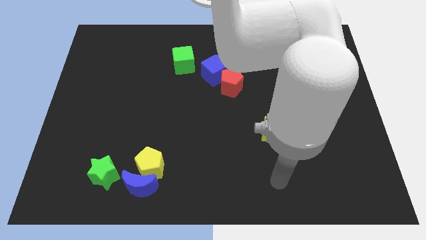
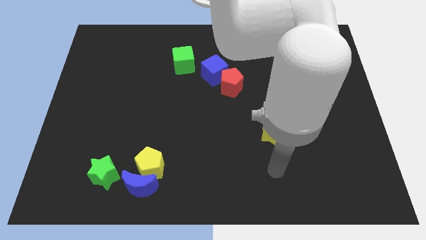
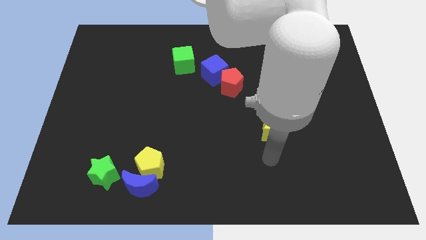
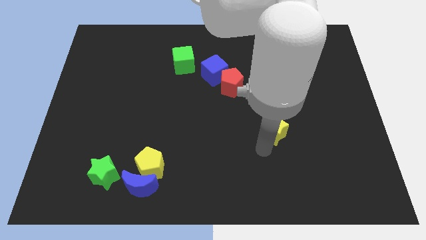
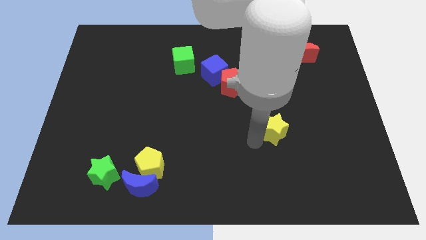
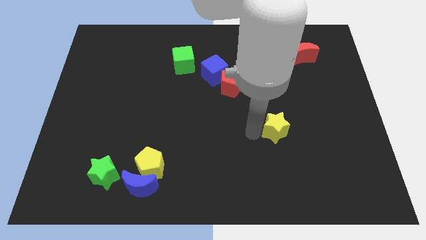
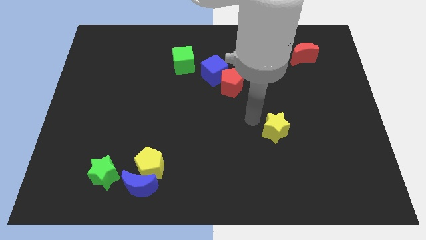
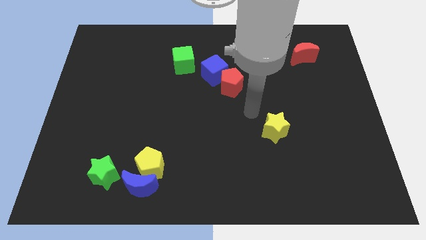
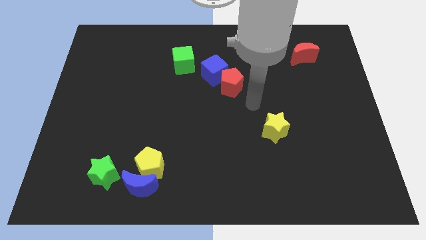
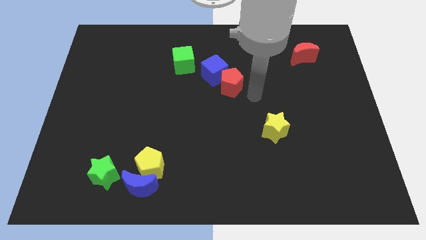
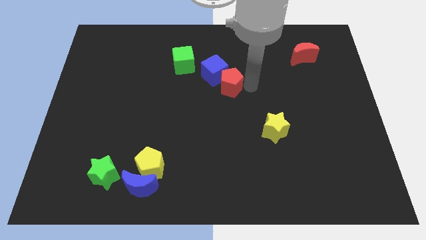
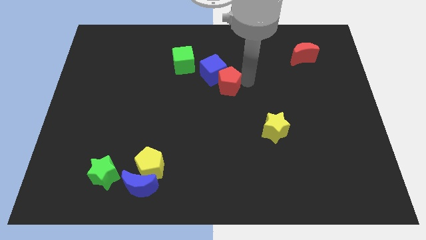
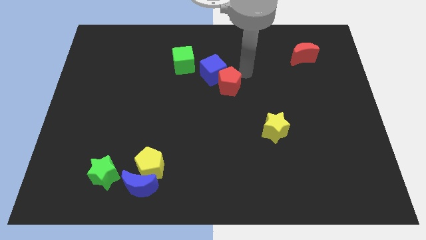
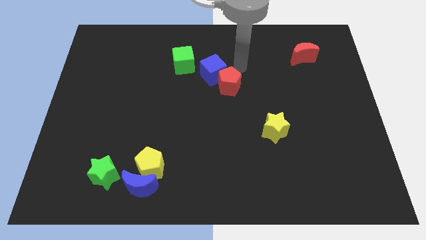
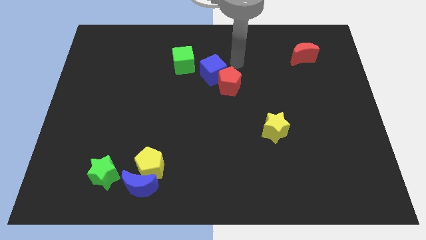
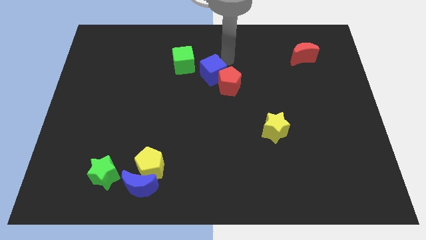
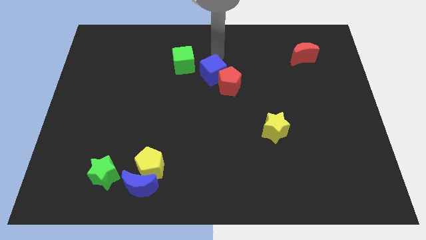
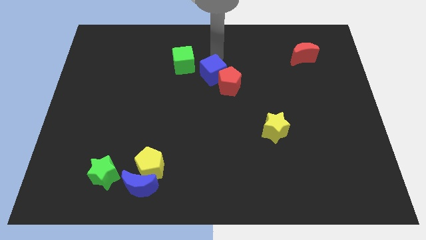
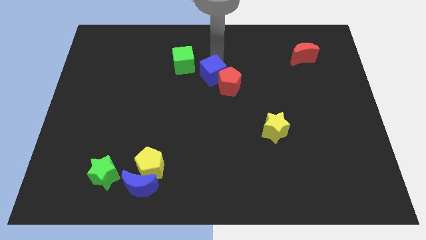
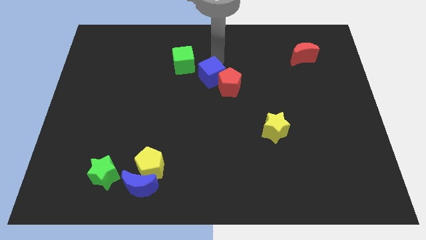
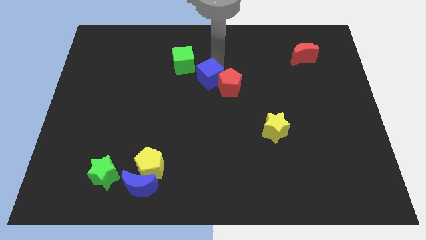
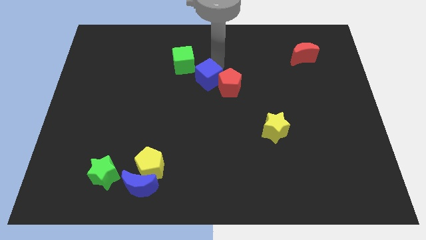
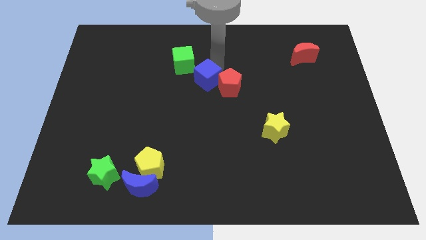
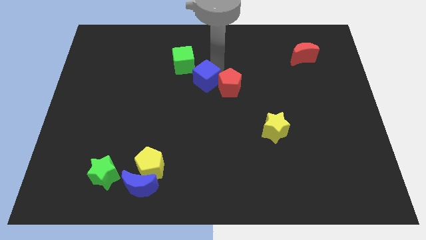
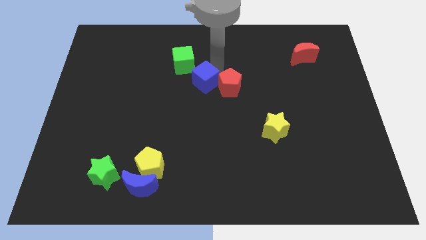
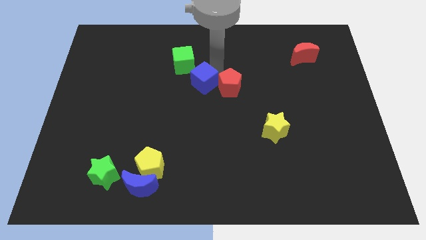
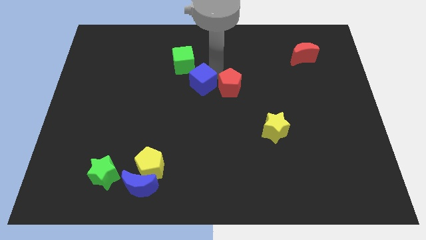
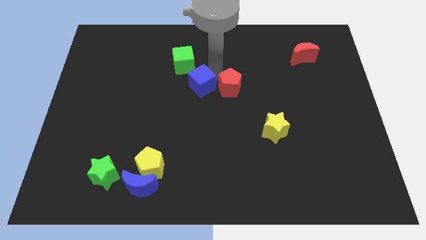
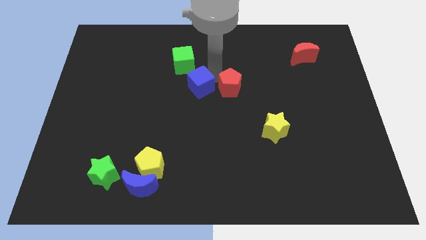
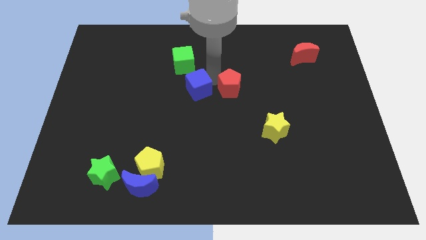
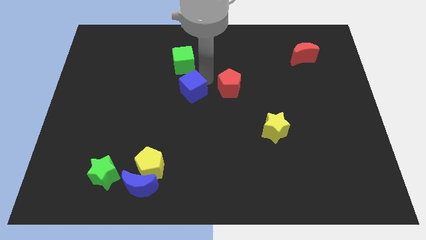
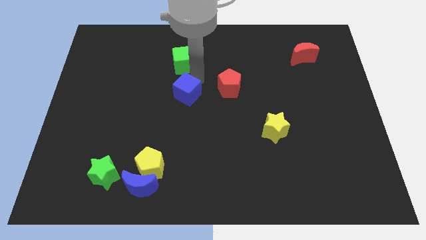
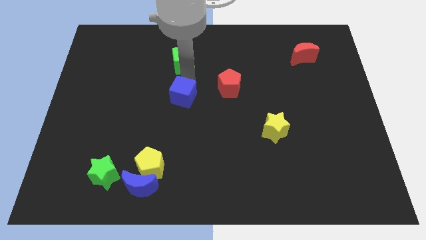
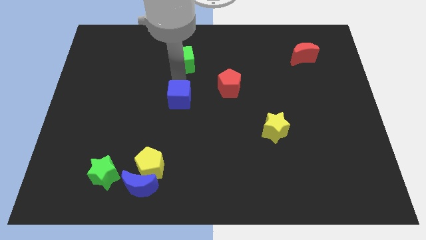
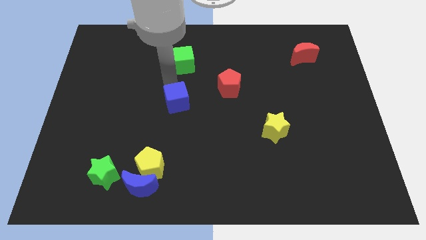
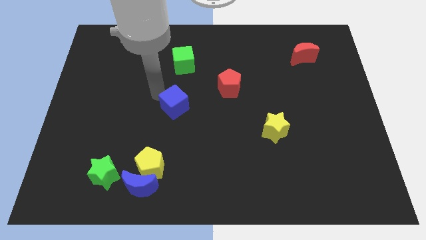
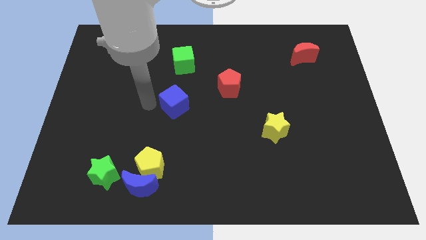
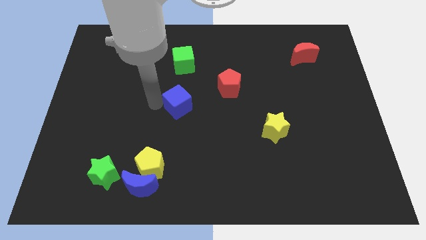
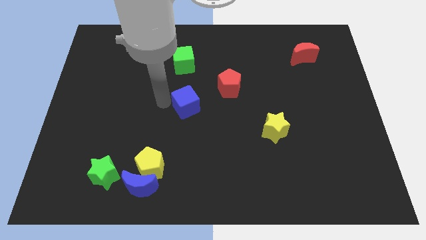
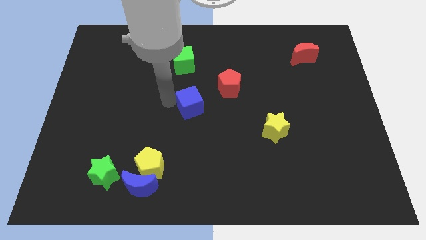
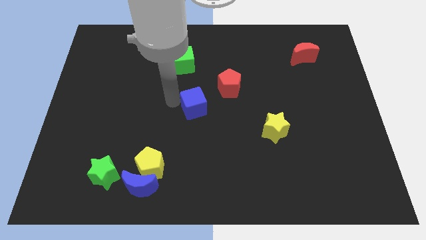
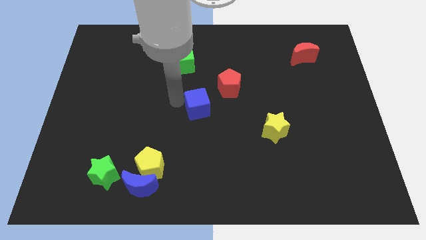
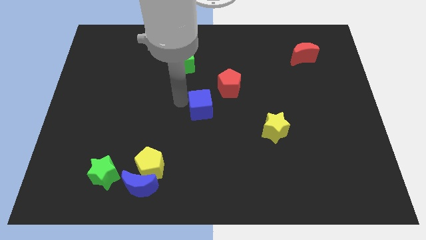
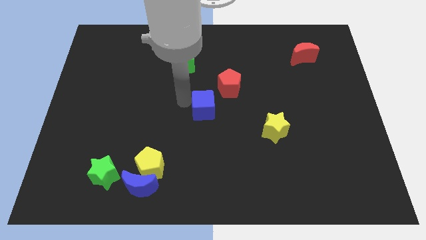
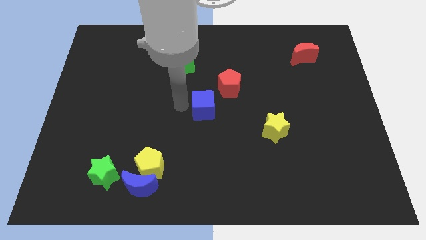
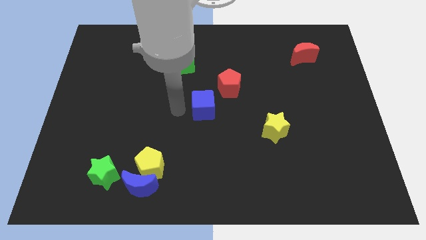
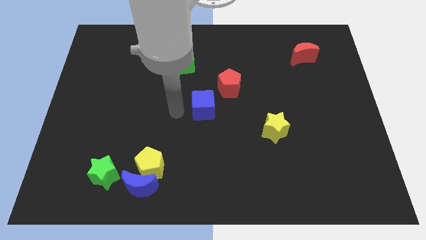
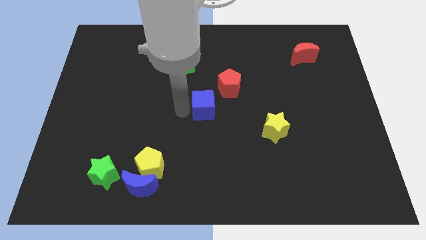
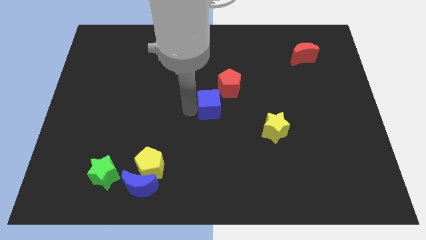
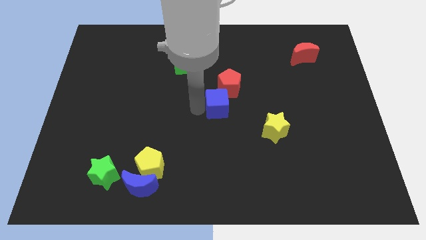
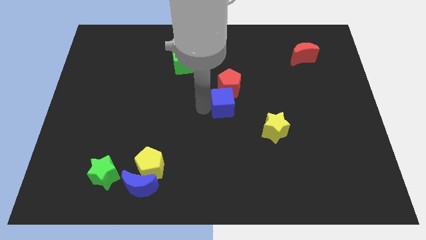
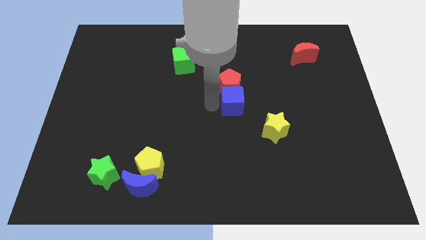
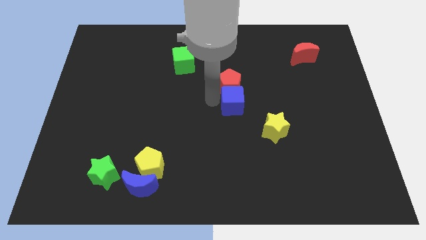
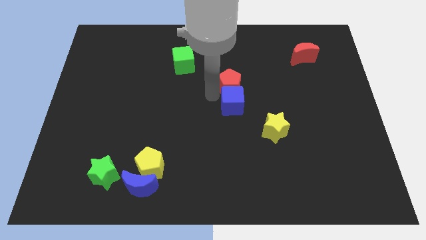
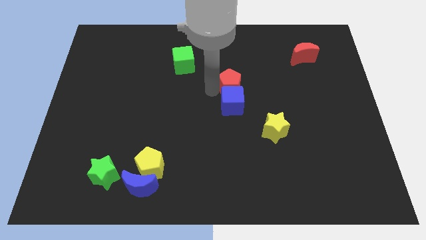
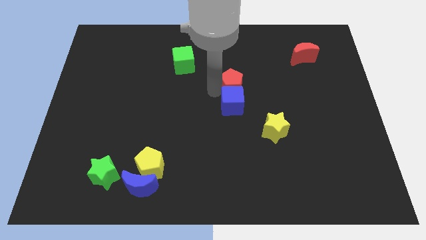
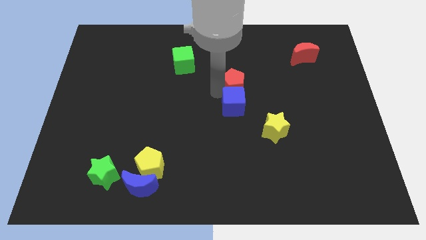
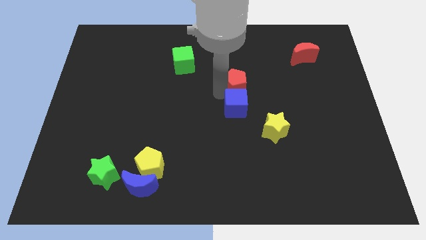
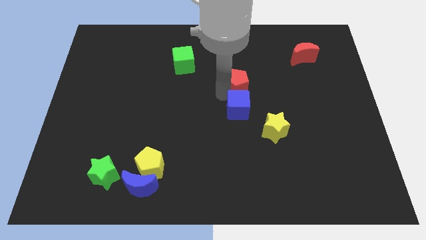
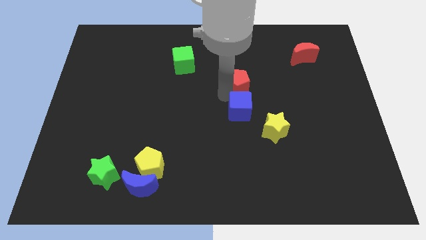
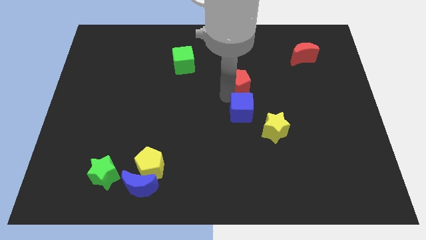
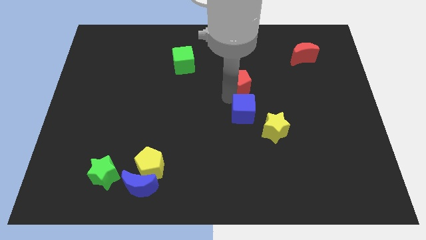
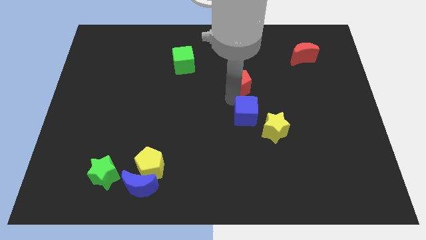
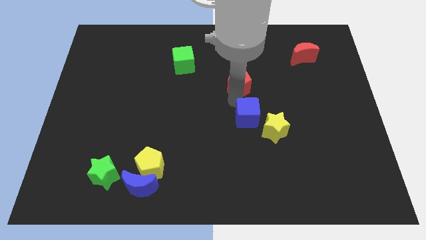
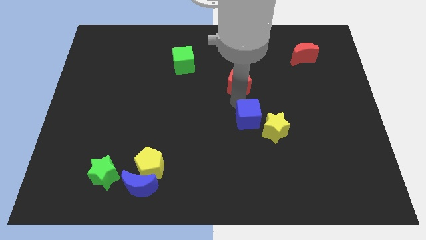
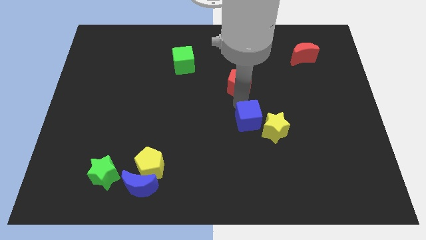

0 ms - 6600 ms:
move the blue cube next to the yellow star

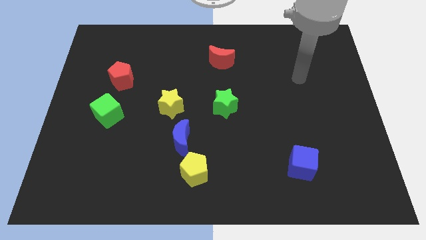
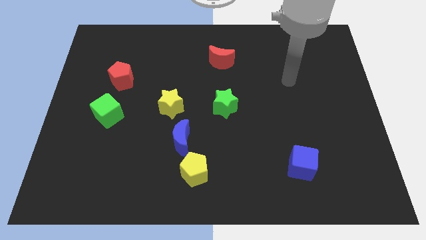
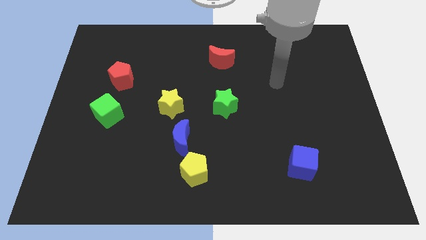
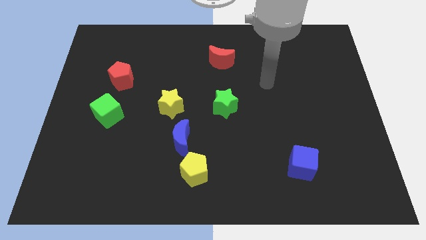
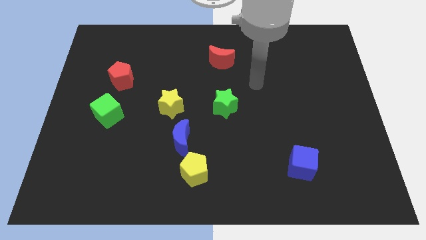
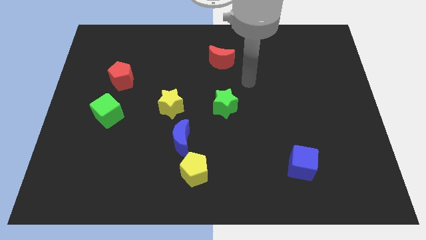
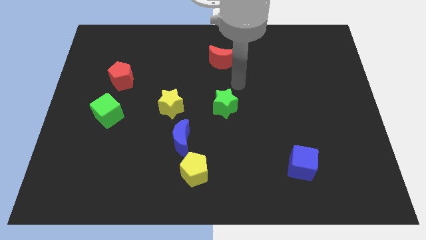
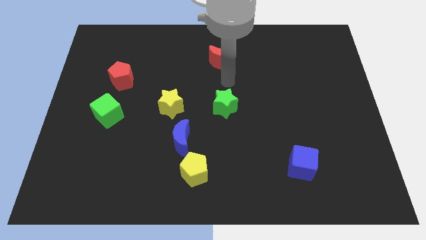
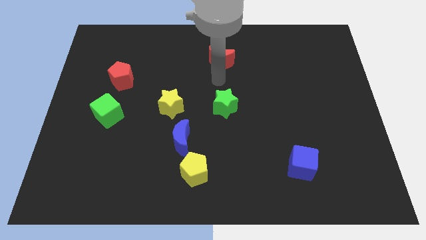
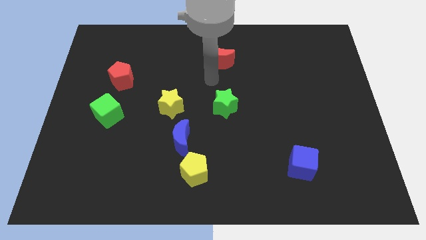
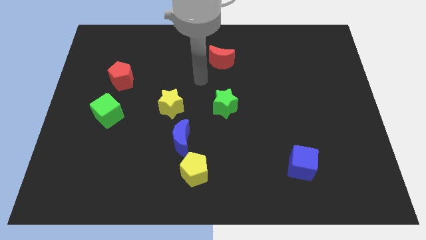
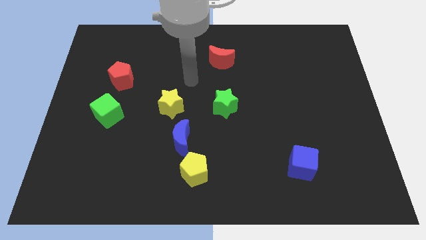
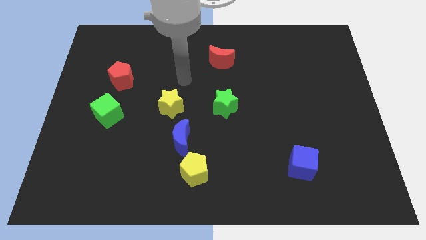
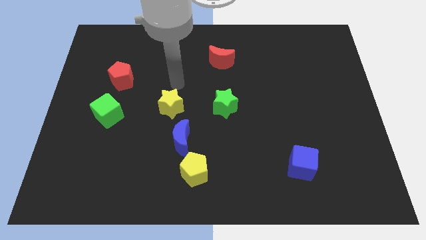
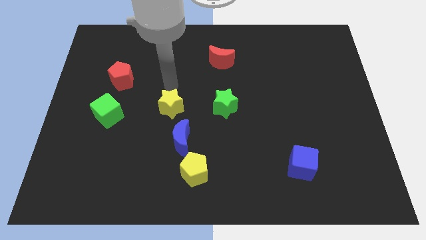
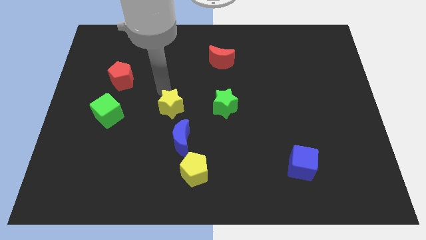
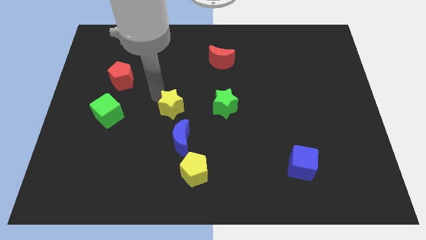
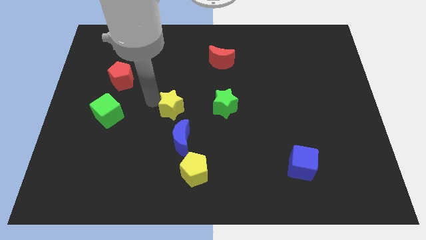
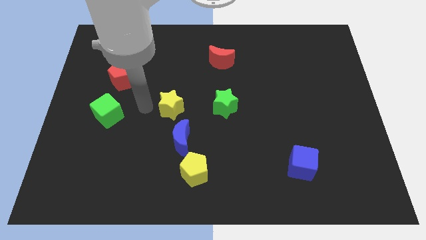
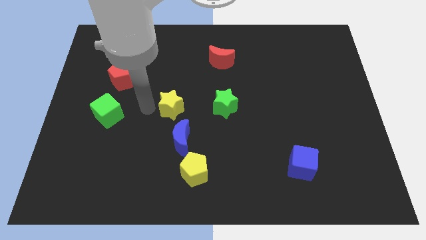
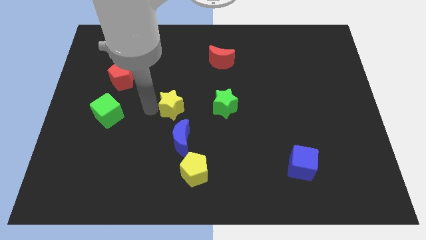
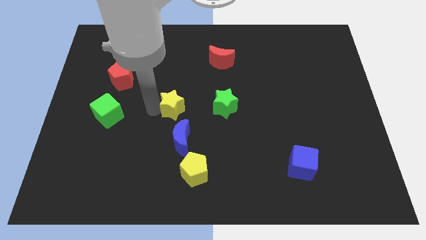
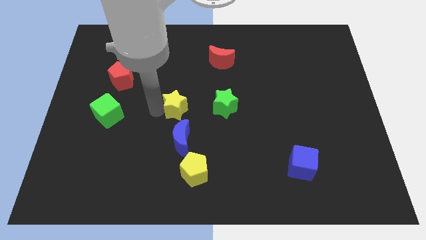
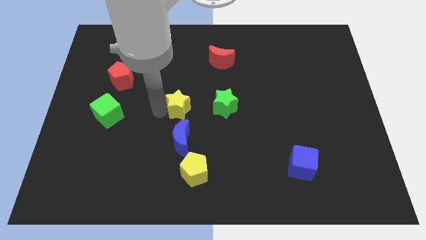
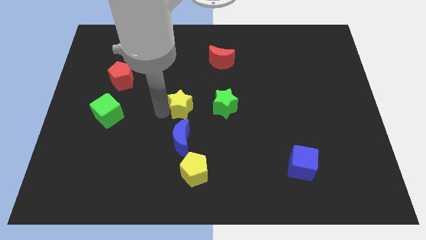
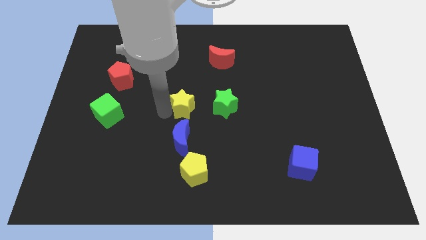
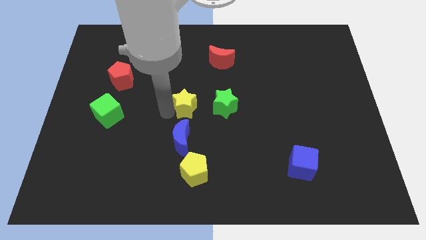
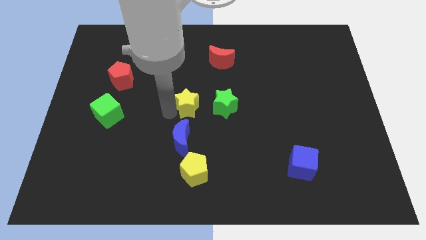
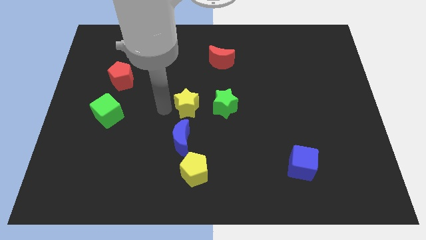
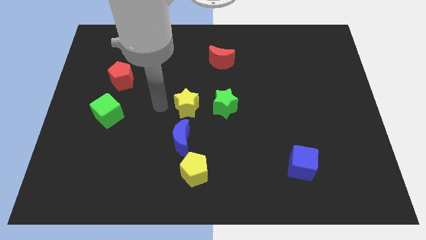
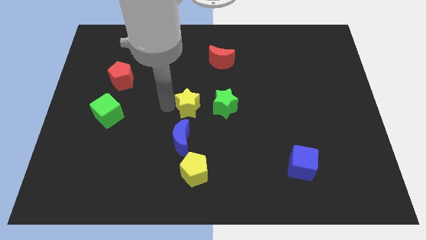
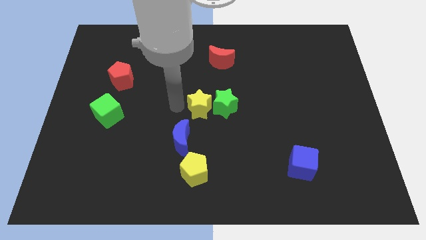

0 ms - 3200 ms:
push the yellow star close to the green star
